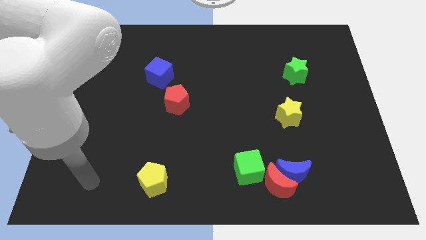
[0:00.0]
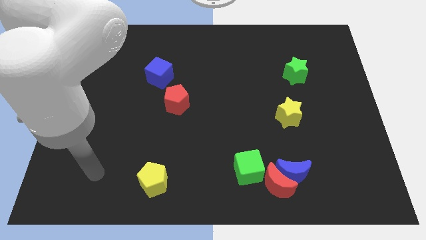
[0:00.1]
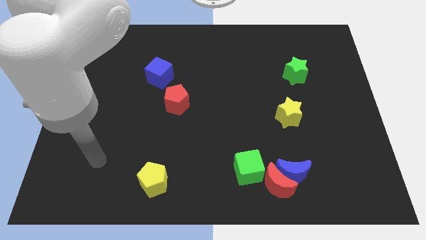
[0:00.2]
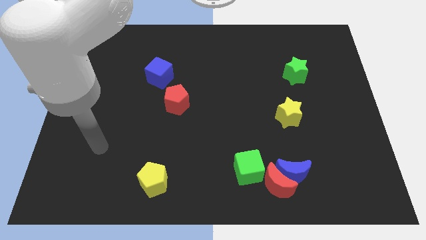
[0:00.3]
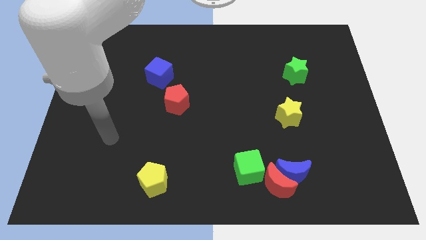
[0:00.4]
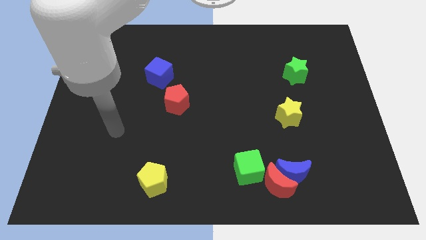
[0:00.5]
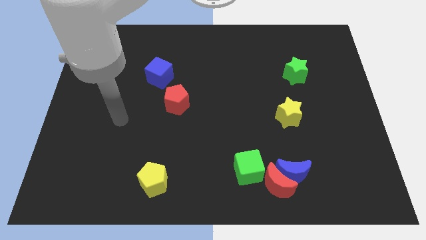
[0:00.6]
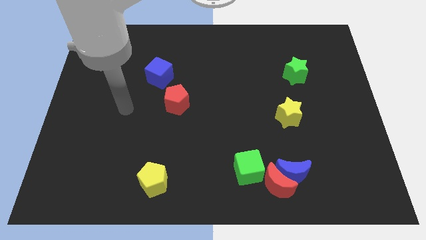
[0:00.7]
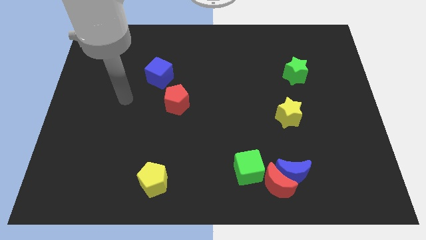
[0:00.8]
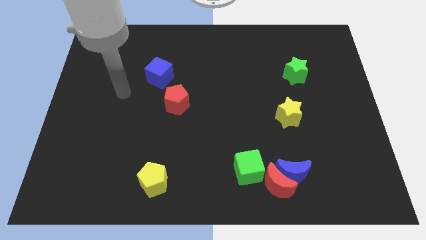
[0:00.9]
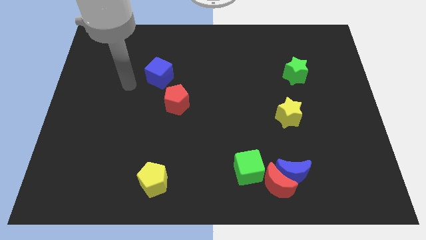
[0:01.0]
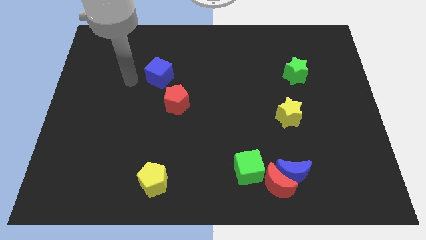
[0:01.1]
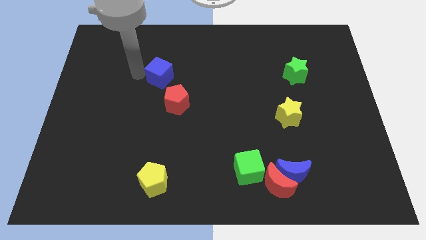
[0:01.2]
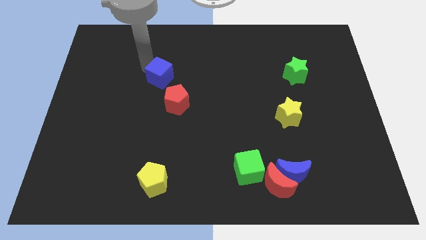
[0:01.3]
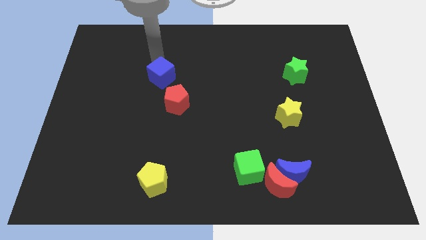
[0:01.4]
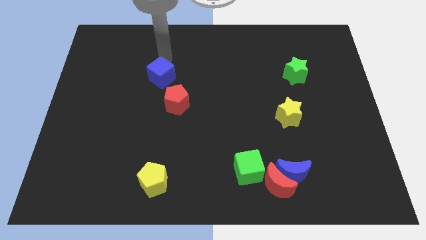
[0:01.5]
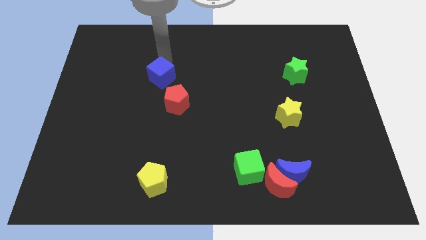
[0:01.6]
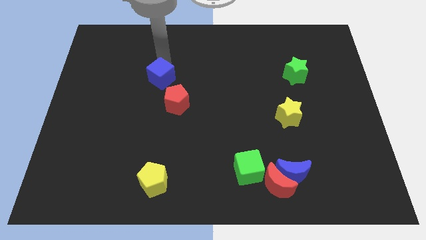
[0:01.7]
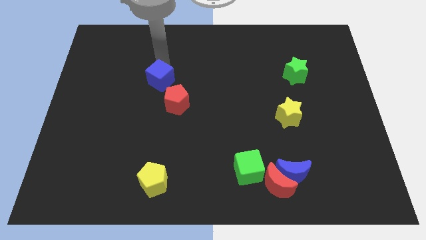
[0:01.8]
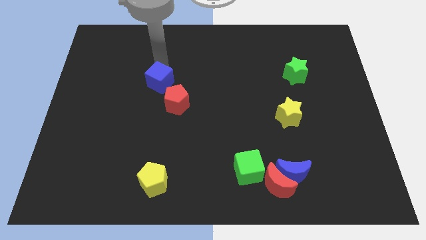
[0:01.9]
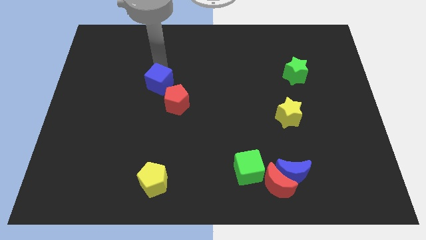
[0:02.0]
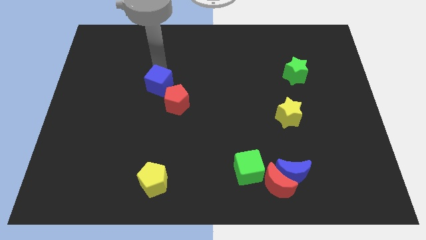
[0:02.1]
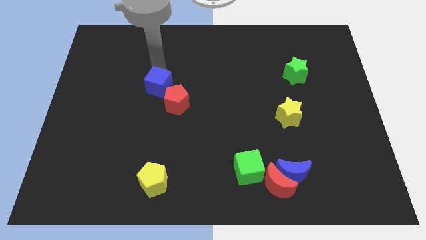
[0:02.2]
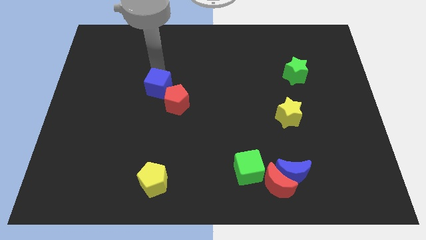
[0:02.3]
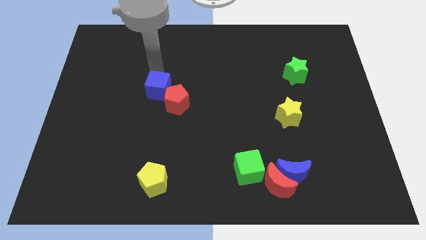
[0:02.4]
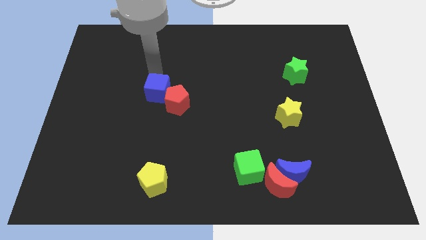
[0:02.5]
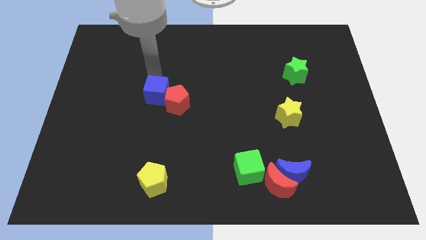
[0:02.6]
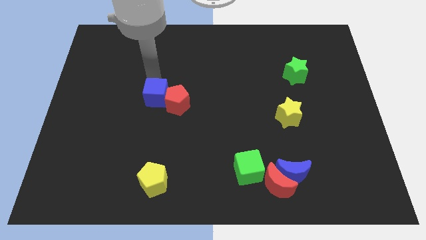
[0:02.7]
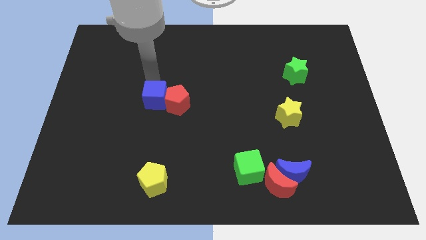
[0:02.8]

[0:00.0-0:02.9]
move the blue cube slightly down

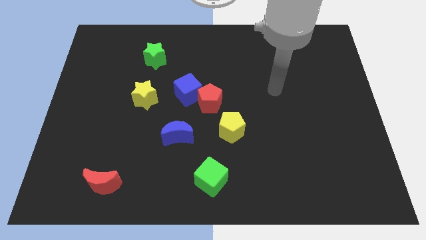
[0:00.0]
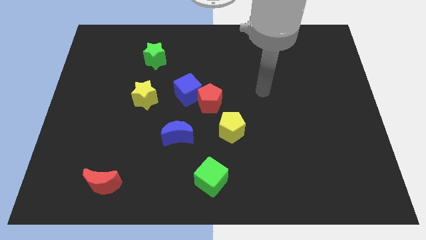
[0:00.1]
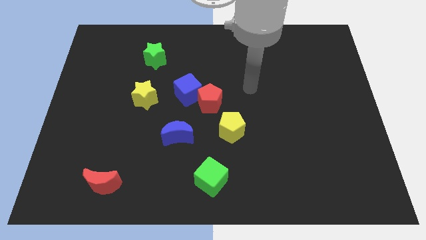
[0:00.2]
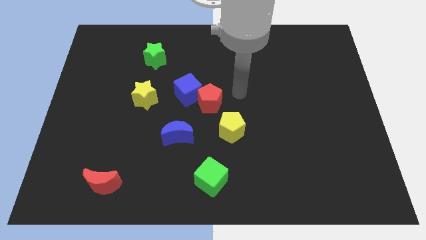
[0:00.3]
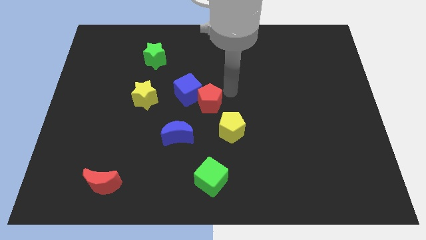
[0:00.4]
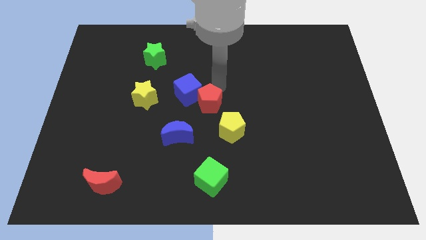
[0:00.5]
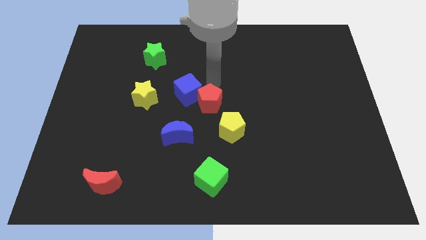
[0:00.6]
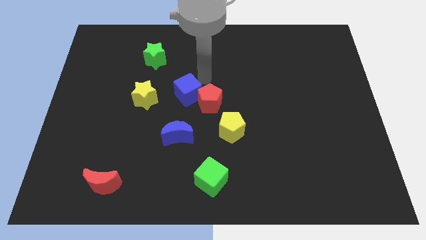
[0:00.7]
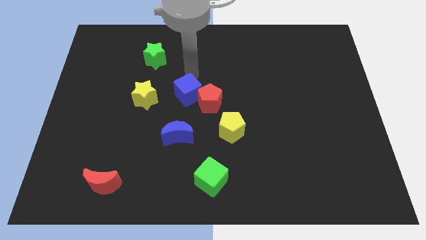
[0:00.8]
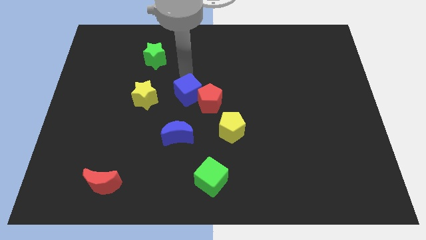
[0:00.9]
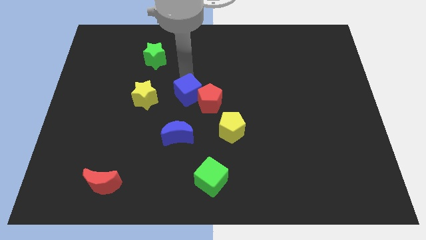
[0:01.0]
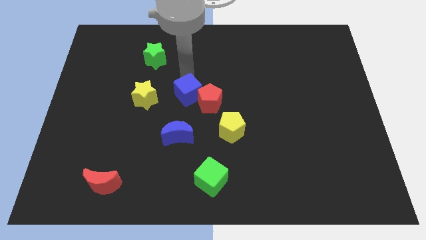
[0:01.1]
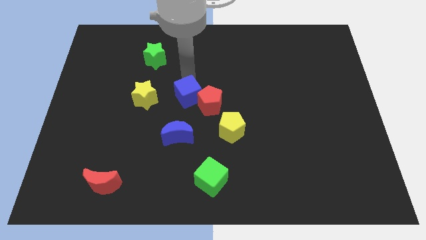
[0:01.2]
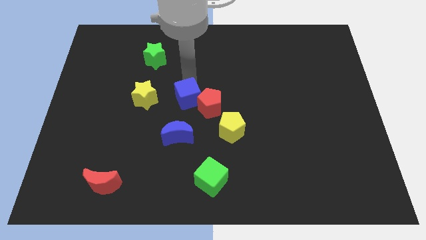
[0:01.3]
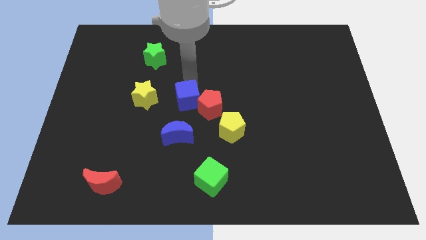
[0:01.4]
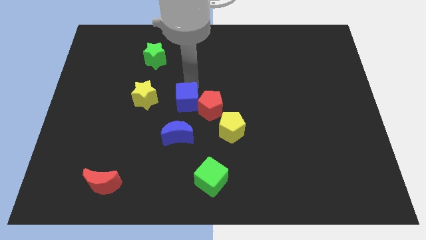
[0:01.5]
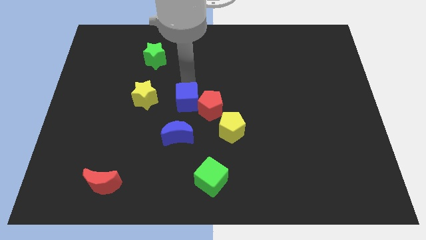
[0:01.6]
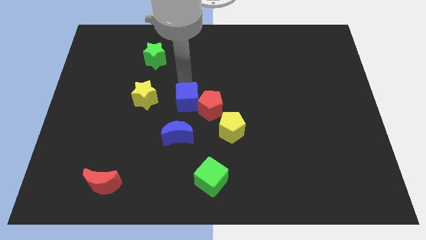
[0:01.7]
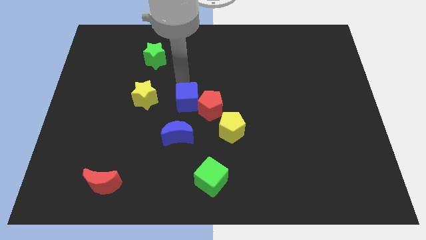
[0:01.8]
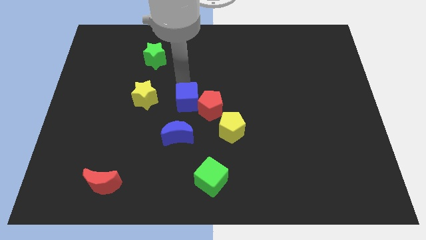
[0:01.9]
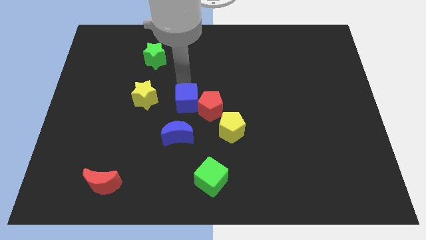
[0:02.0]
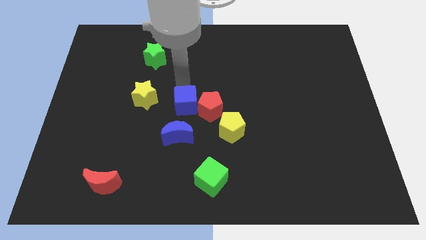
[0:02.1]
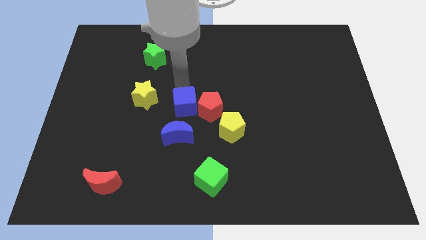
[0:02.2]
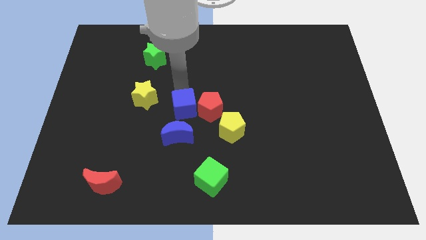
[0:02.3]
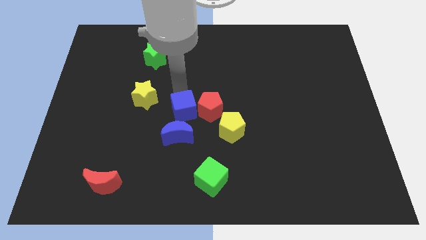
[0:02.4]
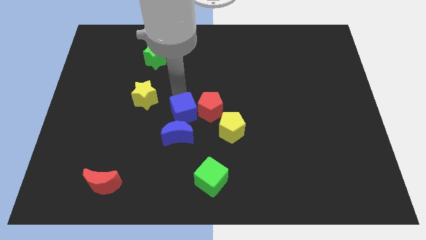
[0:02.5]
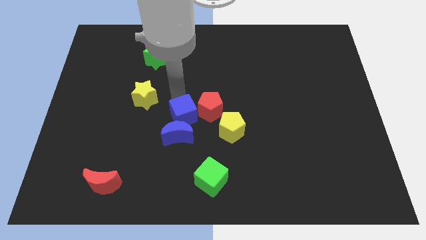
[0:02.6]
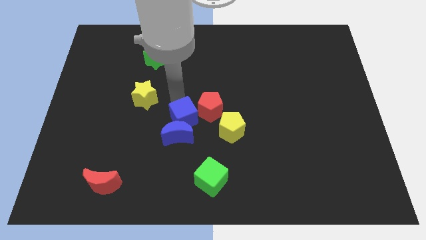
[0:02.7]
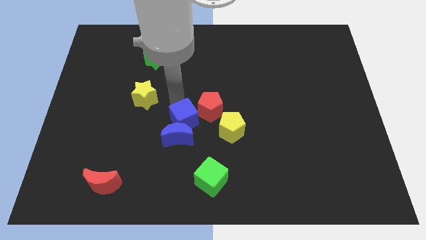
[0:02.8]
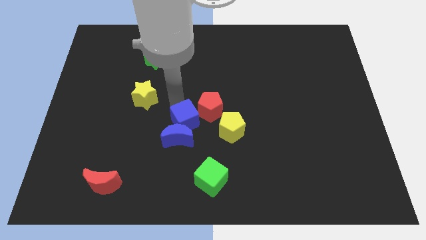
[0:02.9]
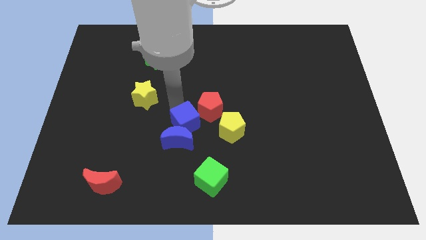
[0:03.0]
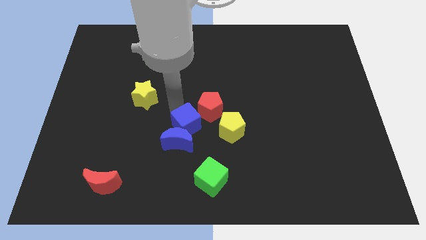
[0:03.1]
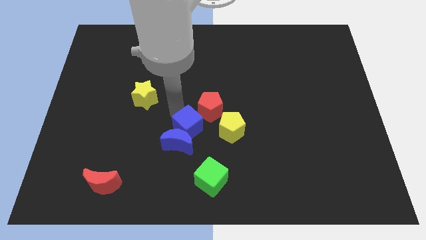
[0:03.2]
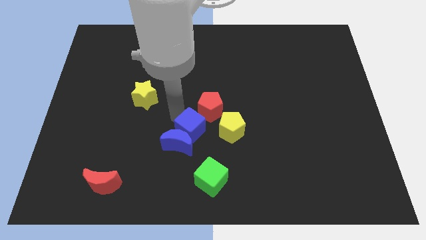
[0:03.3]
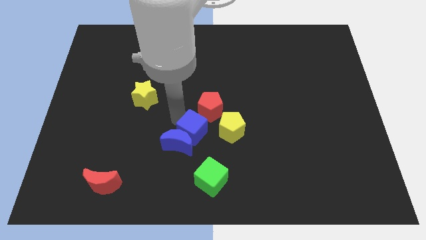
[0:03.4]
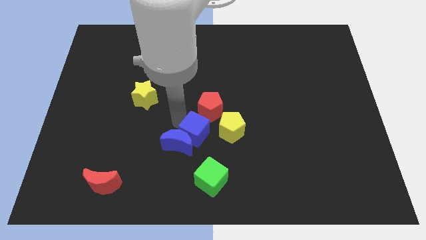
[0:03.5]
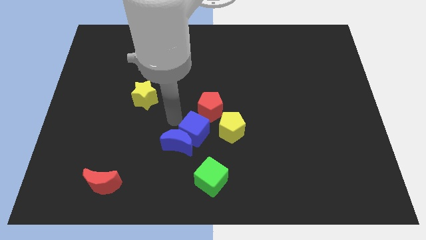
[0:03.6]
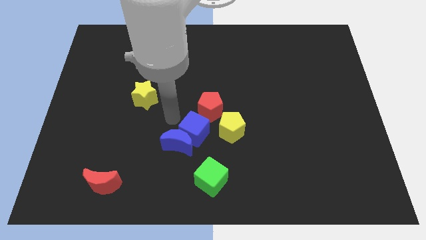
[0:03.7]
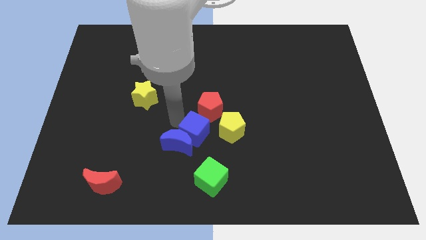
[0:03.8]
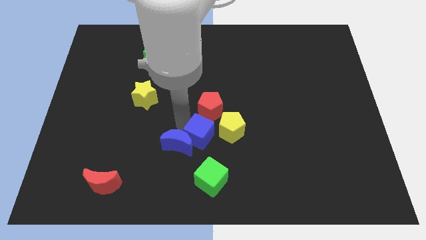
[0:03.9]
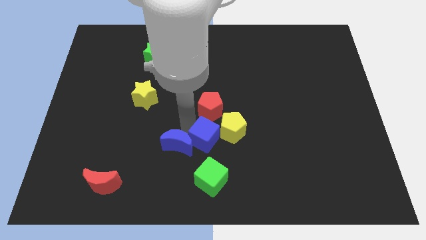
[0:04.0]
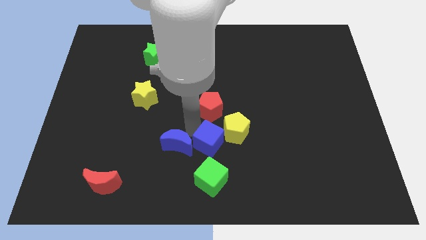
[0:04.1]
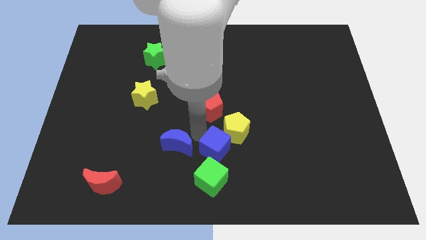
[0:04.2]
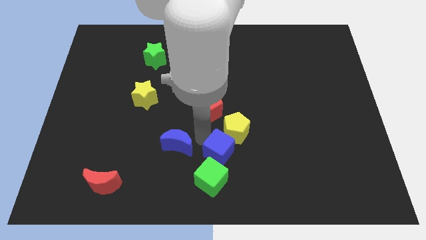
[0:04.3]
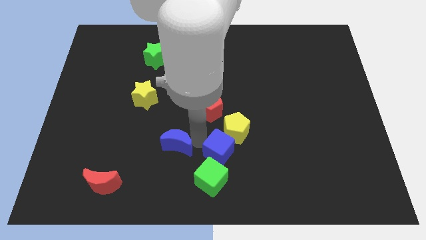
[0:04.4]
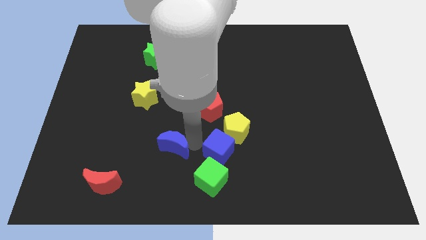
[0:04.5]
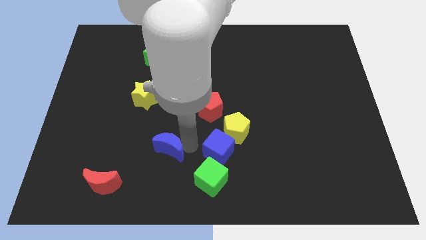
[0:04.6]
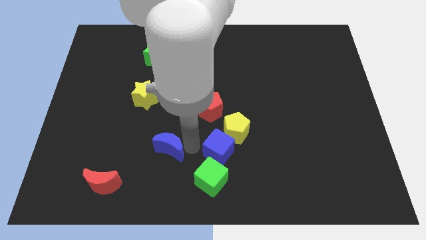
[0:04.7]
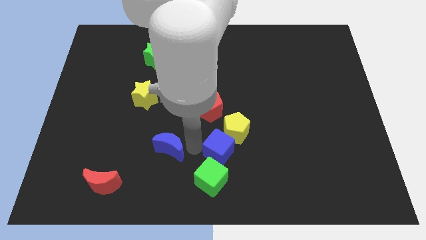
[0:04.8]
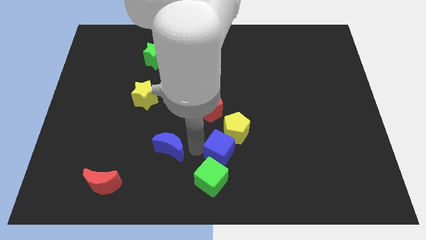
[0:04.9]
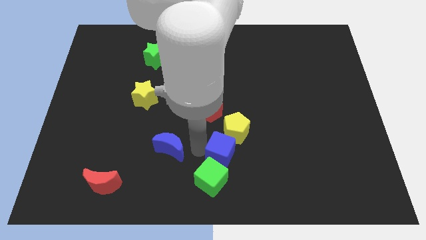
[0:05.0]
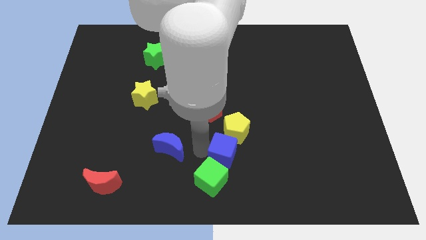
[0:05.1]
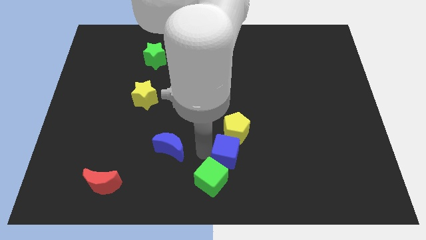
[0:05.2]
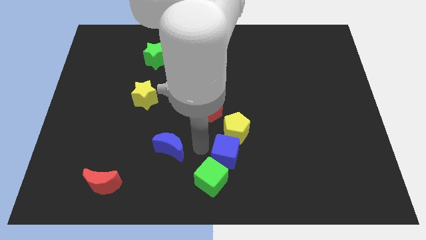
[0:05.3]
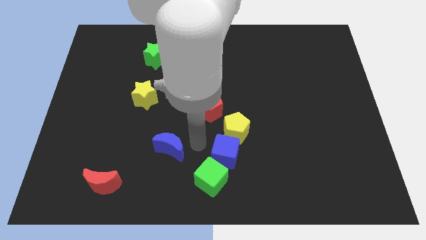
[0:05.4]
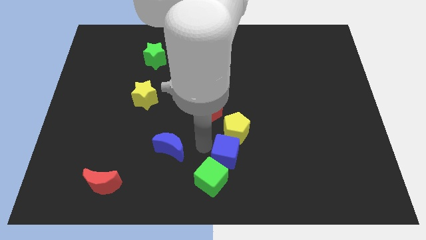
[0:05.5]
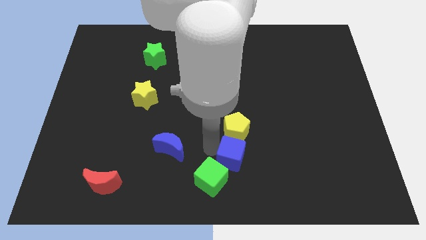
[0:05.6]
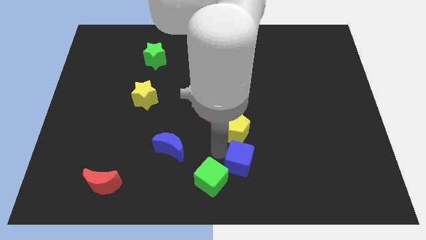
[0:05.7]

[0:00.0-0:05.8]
push the blue cube diagonally downwards and to the right
